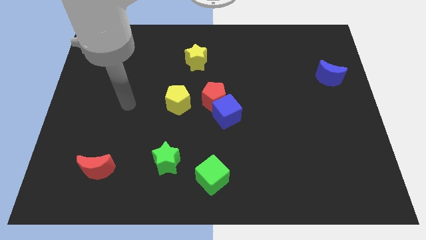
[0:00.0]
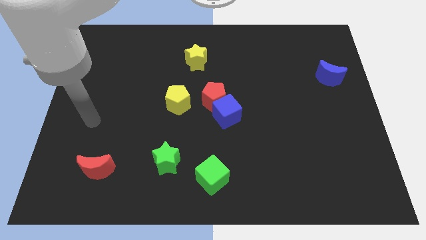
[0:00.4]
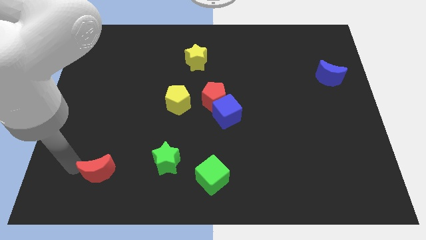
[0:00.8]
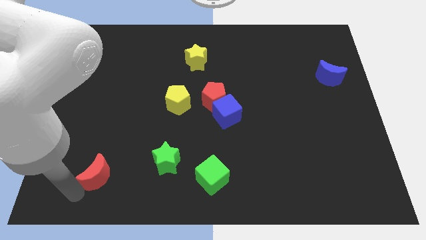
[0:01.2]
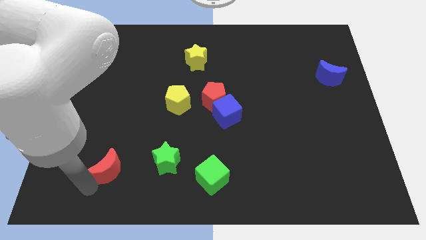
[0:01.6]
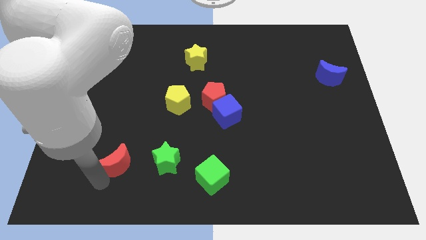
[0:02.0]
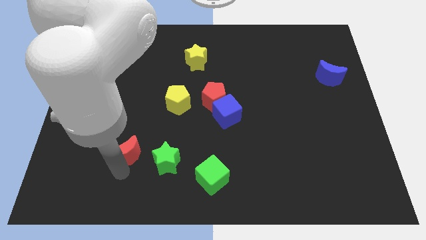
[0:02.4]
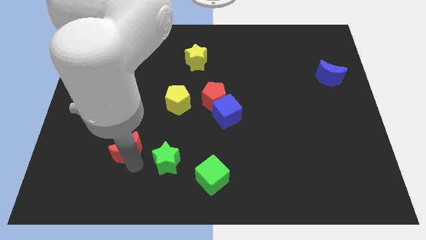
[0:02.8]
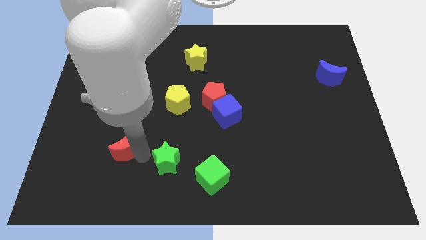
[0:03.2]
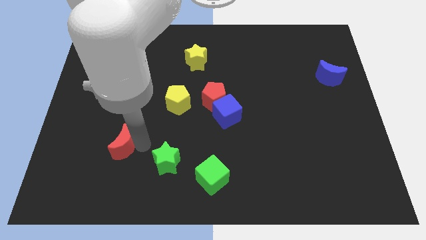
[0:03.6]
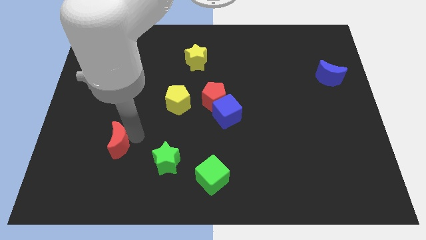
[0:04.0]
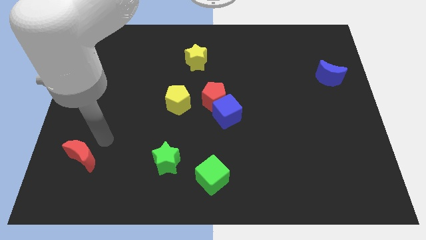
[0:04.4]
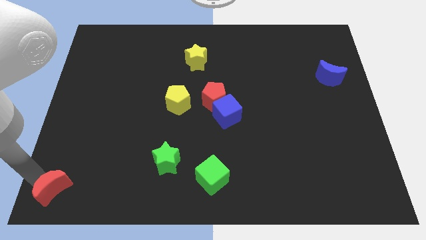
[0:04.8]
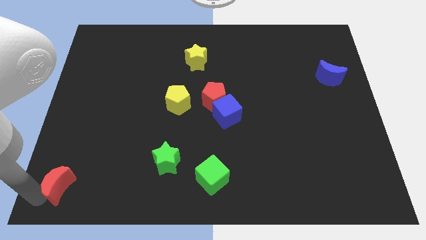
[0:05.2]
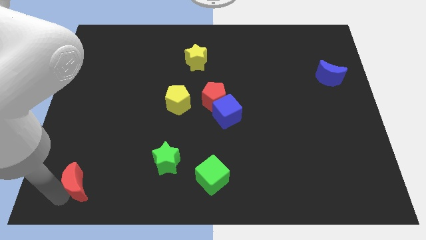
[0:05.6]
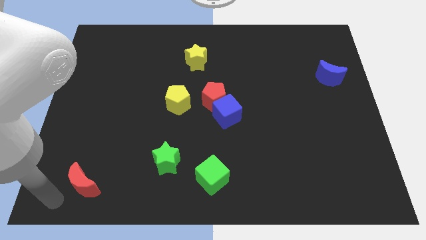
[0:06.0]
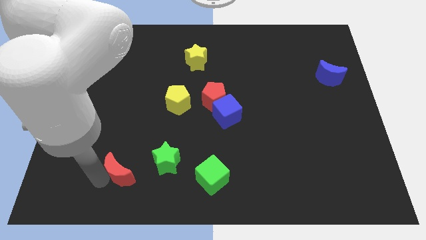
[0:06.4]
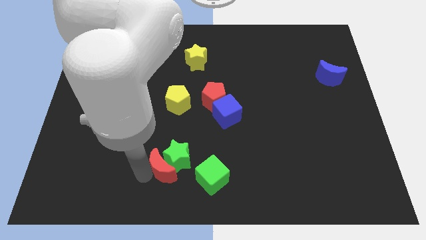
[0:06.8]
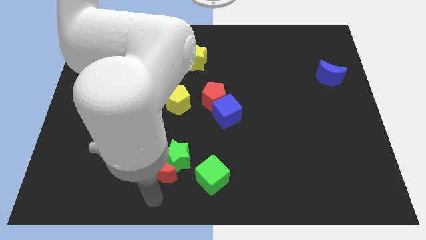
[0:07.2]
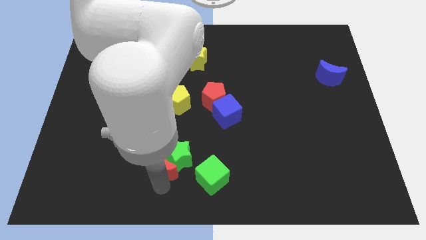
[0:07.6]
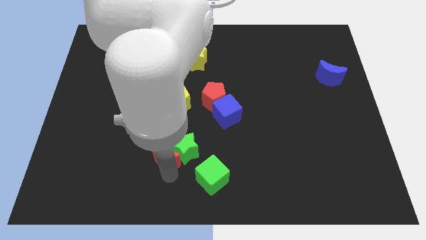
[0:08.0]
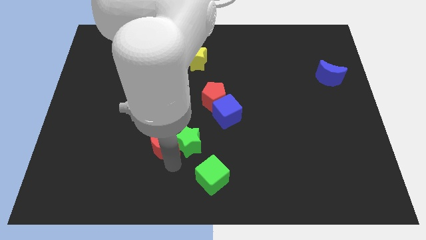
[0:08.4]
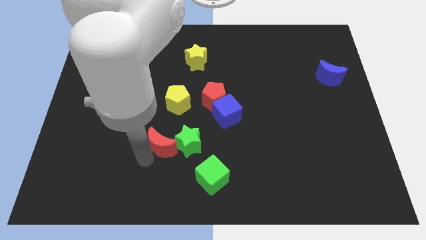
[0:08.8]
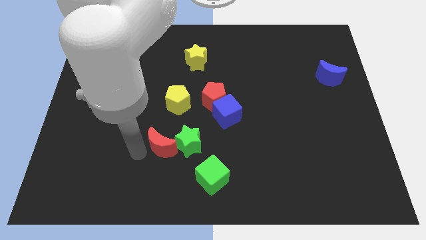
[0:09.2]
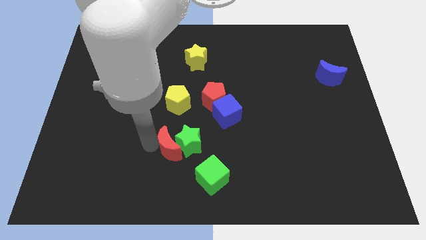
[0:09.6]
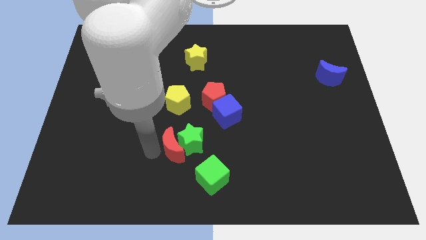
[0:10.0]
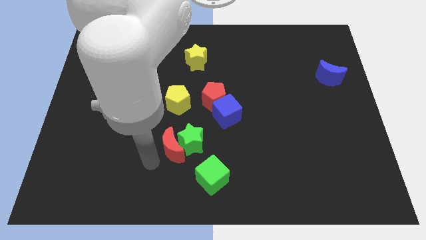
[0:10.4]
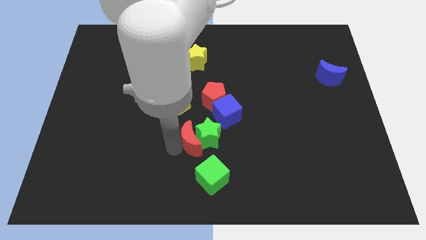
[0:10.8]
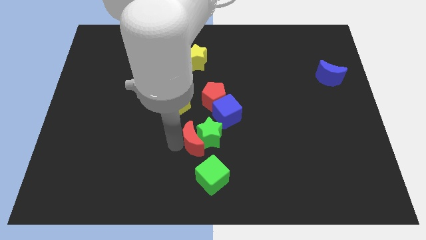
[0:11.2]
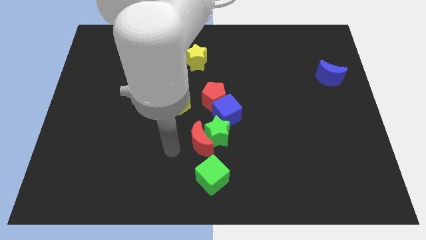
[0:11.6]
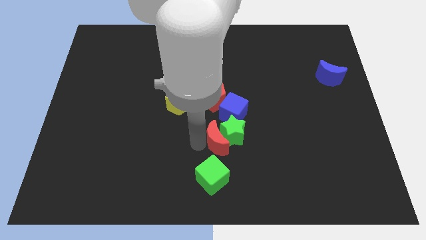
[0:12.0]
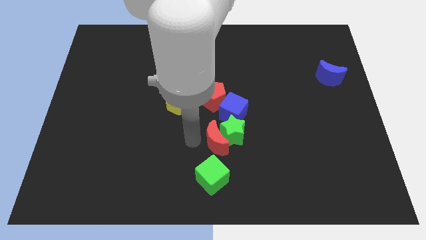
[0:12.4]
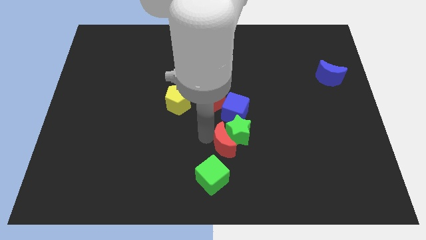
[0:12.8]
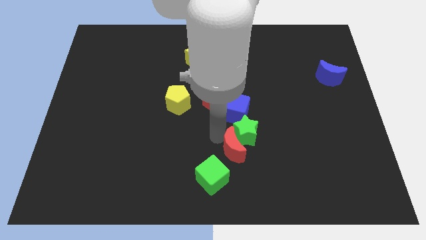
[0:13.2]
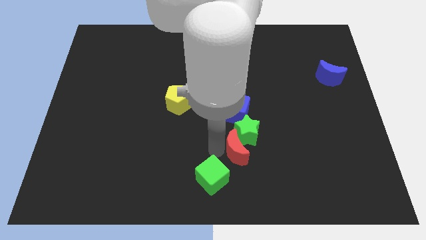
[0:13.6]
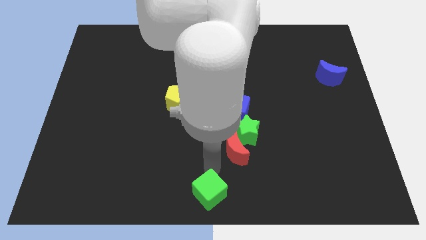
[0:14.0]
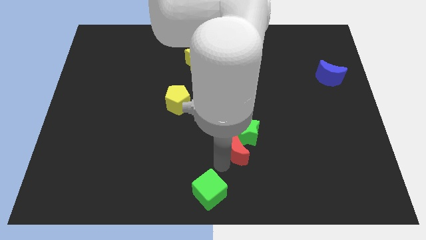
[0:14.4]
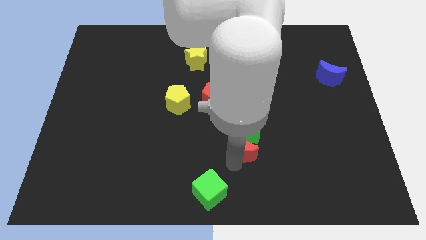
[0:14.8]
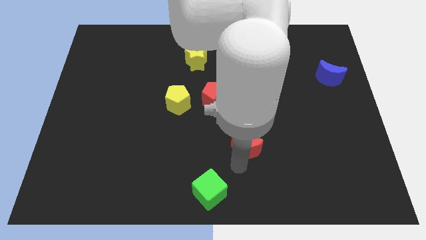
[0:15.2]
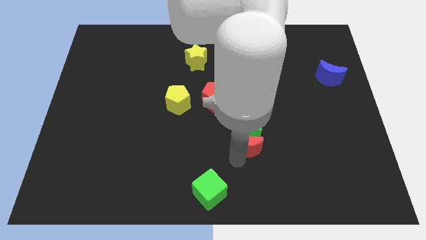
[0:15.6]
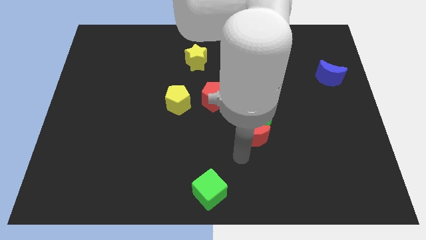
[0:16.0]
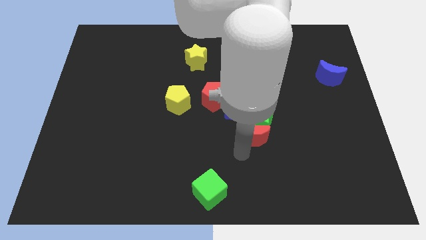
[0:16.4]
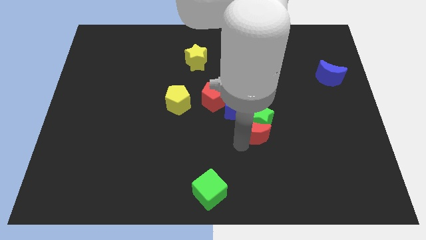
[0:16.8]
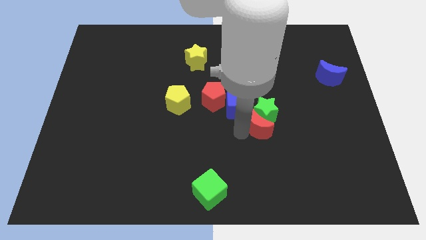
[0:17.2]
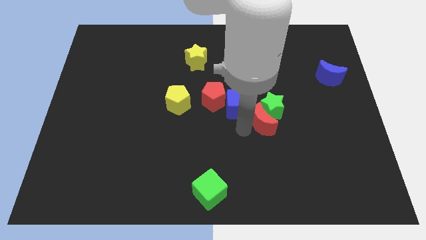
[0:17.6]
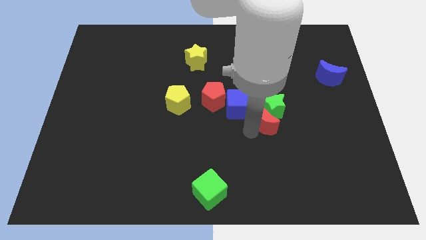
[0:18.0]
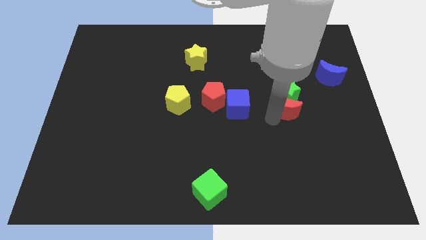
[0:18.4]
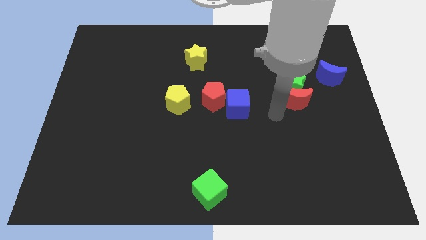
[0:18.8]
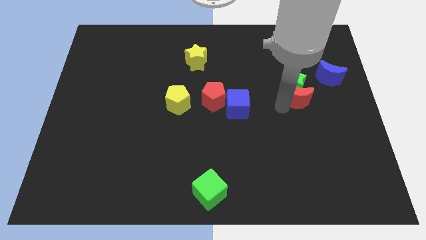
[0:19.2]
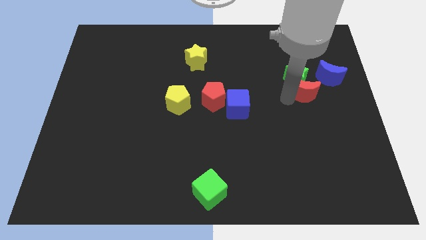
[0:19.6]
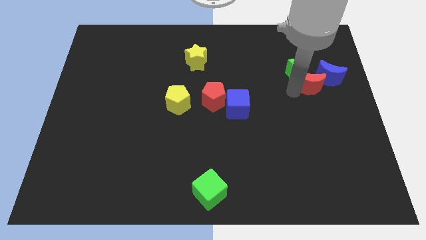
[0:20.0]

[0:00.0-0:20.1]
put the red moon next to the blue moon

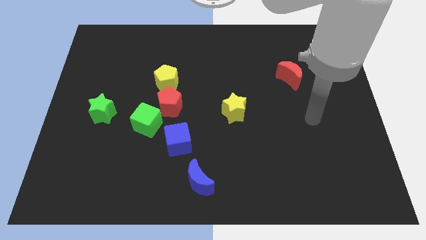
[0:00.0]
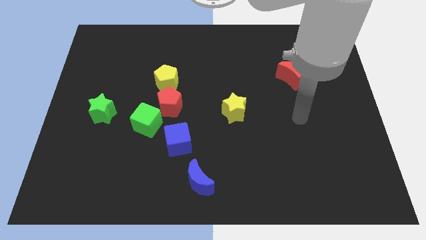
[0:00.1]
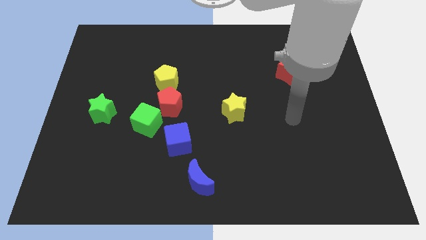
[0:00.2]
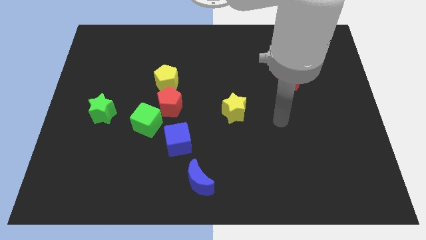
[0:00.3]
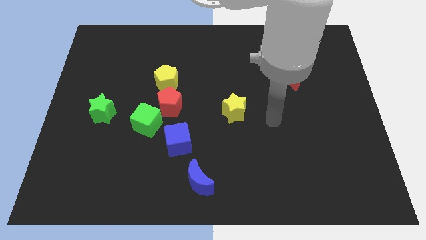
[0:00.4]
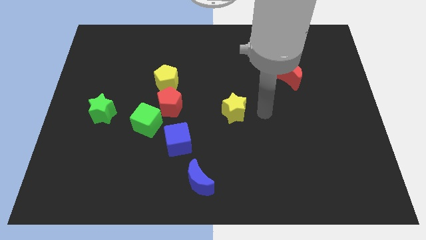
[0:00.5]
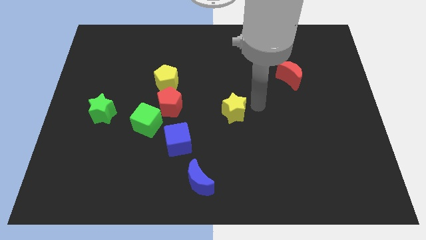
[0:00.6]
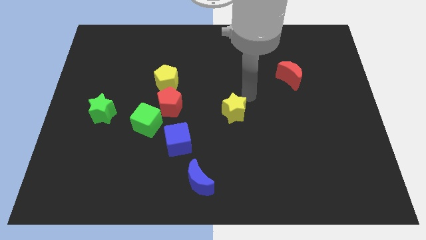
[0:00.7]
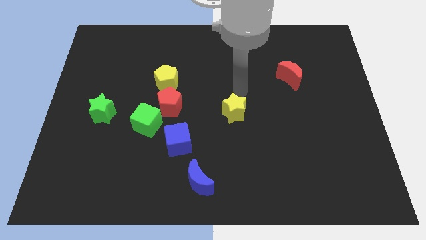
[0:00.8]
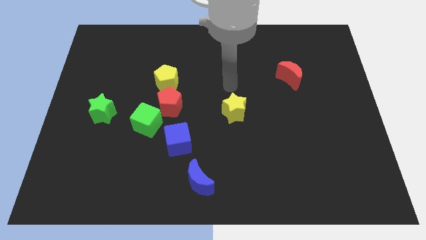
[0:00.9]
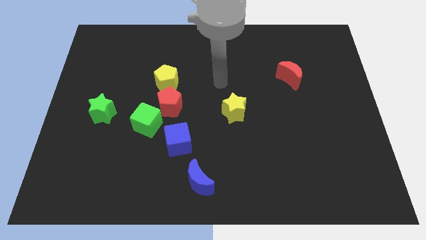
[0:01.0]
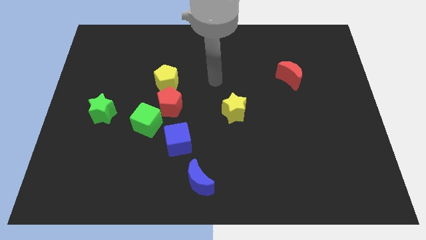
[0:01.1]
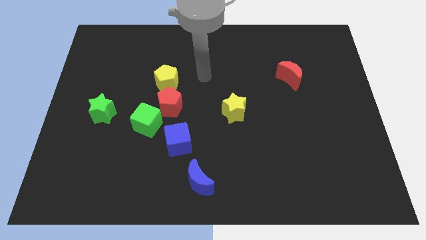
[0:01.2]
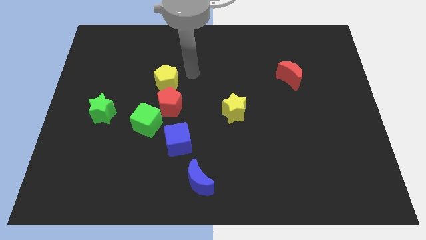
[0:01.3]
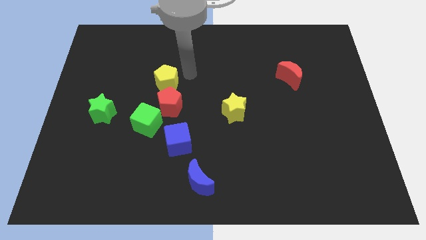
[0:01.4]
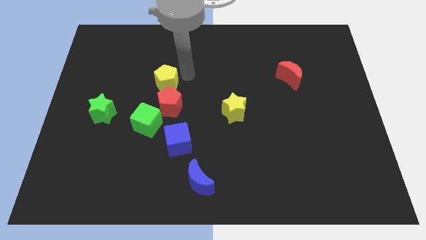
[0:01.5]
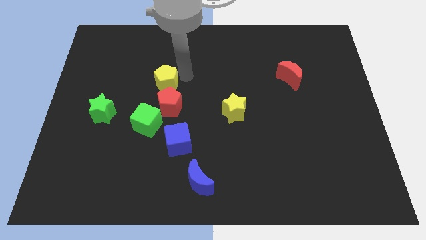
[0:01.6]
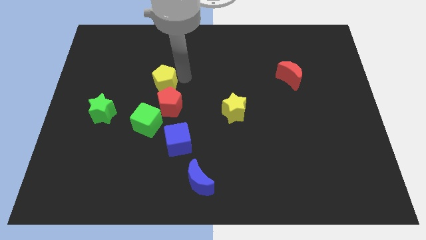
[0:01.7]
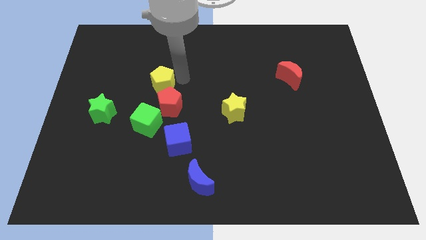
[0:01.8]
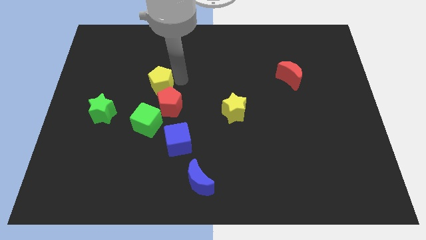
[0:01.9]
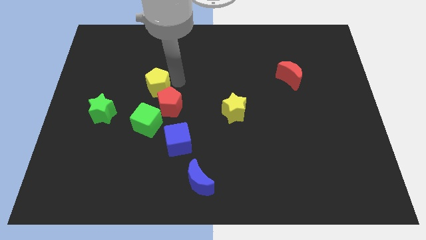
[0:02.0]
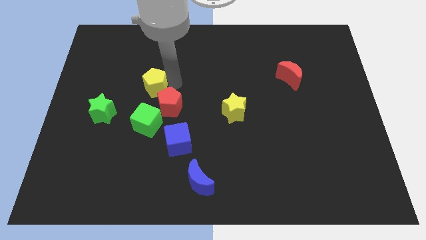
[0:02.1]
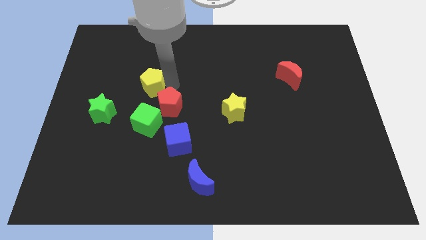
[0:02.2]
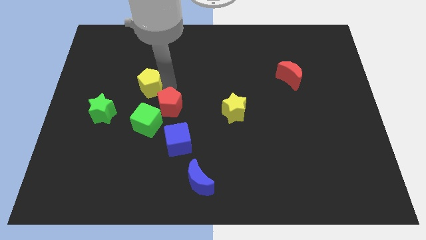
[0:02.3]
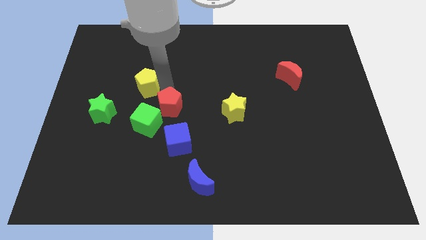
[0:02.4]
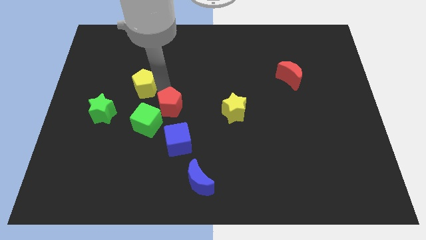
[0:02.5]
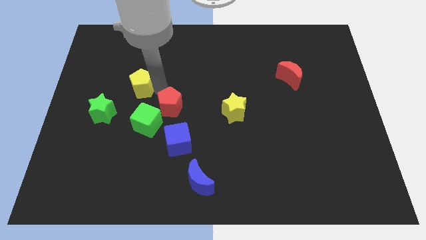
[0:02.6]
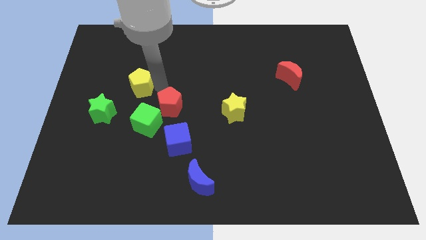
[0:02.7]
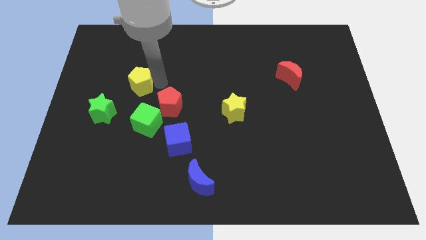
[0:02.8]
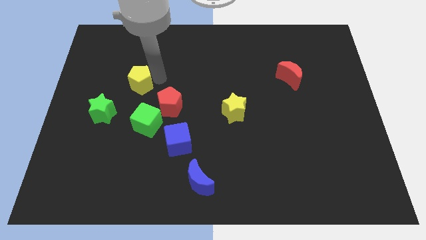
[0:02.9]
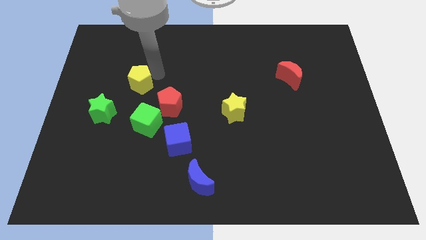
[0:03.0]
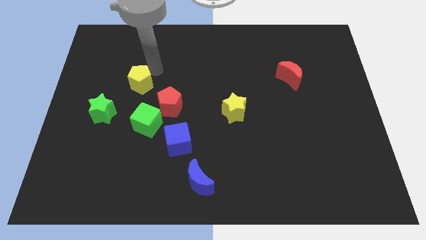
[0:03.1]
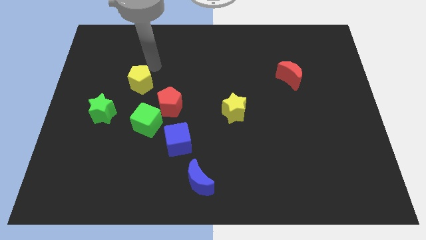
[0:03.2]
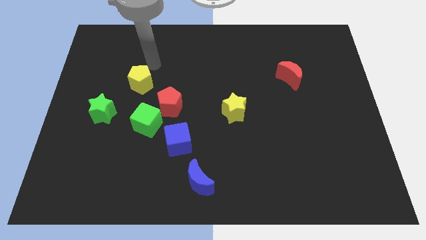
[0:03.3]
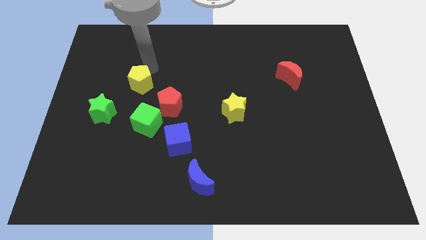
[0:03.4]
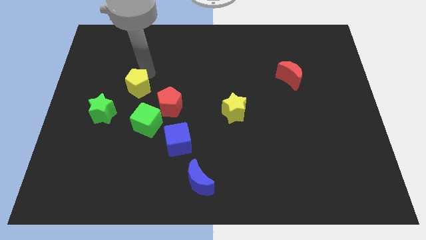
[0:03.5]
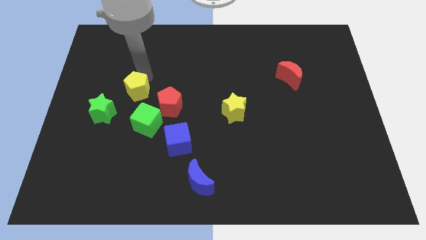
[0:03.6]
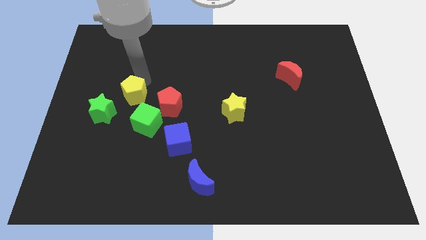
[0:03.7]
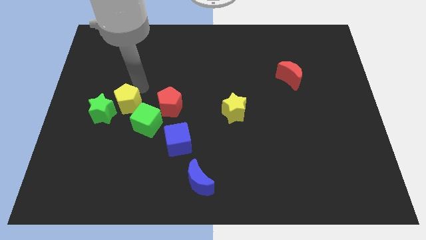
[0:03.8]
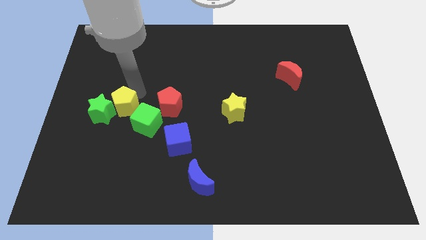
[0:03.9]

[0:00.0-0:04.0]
push the yellow pentagon towards the green star
